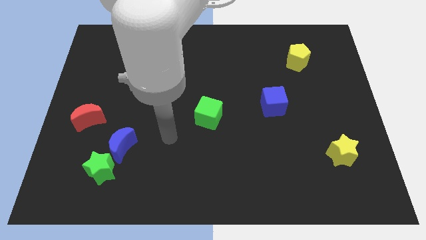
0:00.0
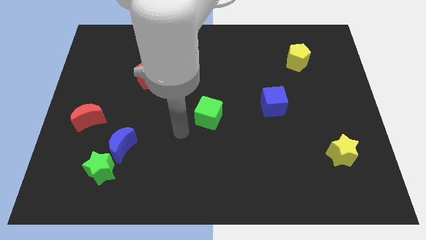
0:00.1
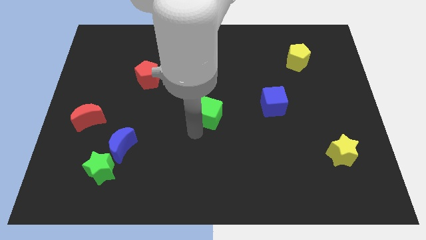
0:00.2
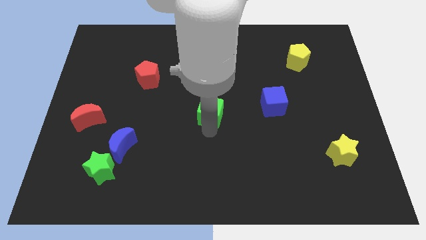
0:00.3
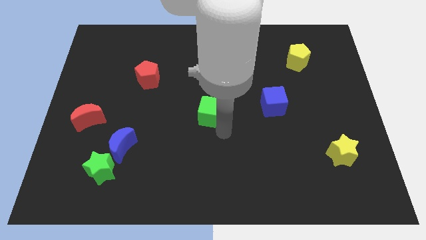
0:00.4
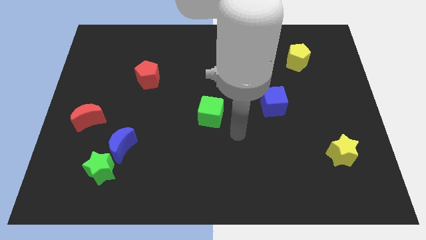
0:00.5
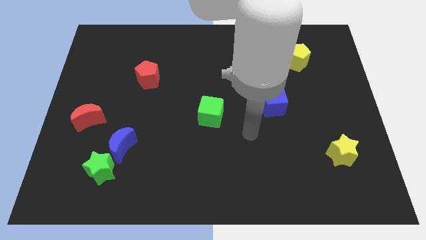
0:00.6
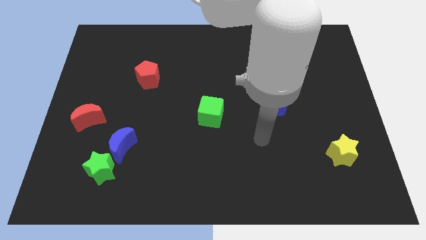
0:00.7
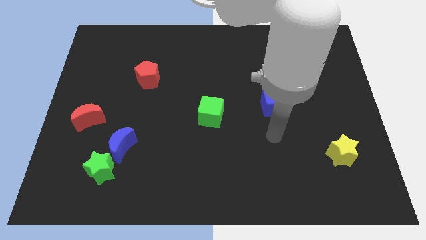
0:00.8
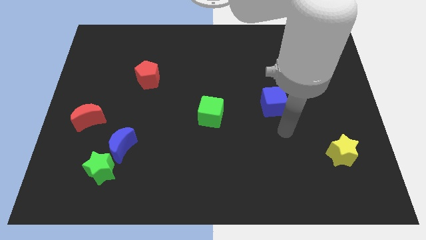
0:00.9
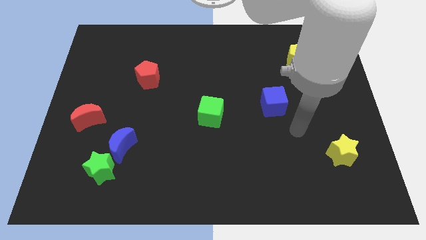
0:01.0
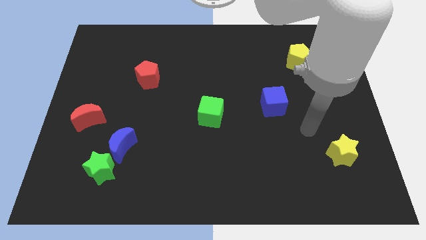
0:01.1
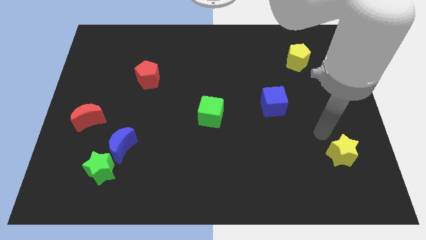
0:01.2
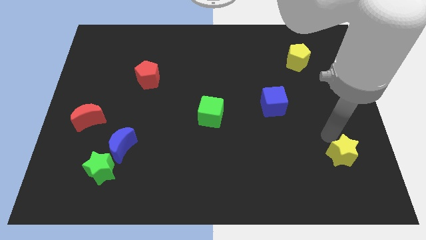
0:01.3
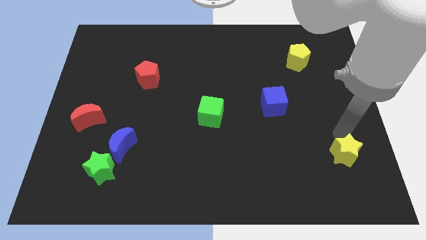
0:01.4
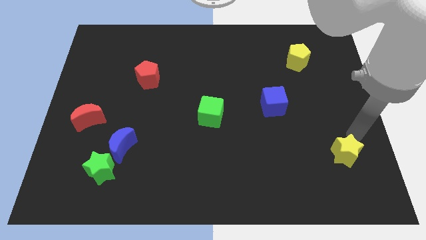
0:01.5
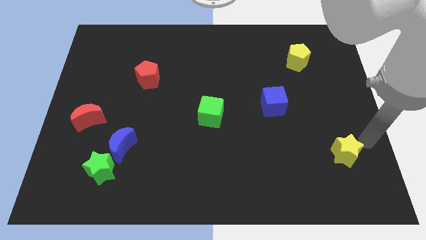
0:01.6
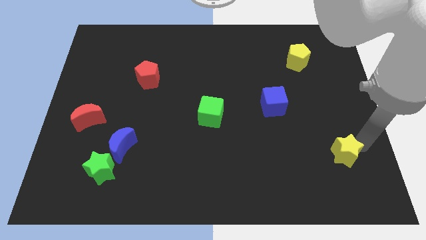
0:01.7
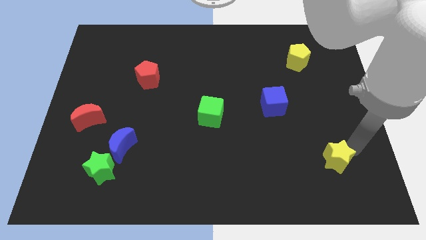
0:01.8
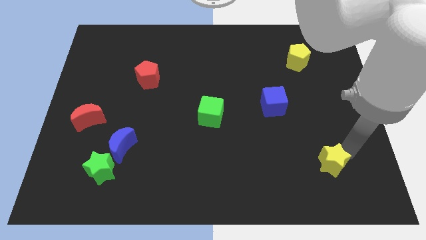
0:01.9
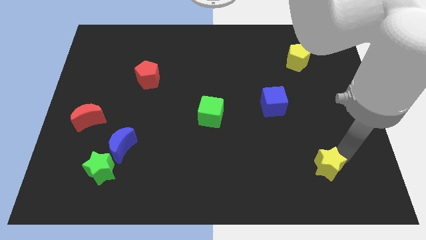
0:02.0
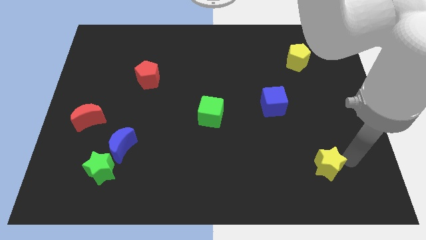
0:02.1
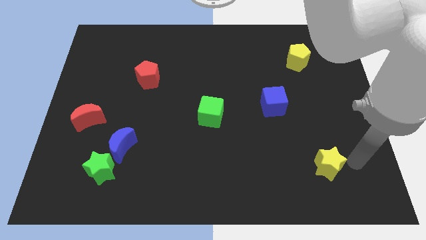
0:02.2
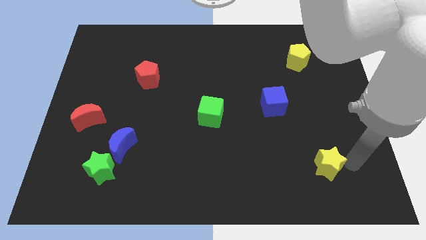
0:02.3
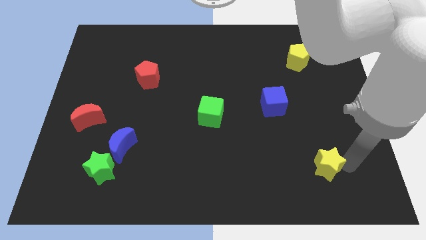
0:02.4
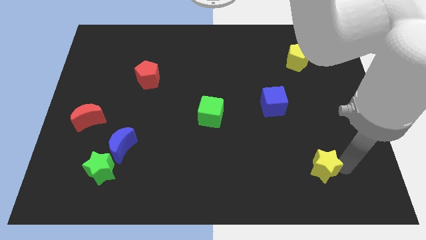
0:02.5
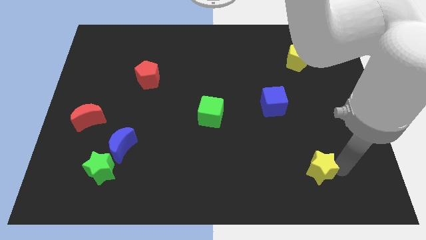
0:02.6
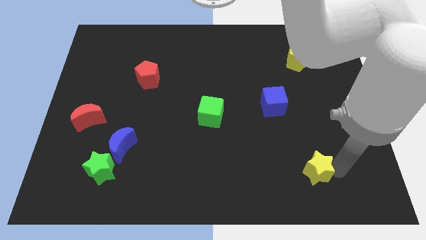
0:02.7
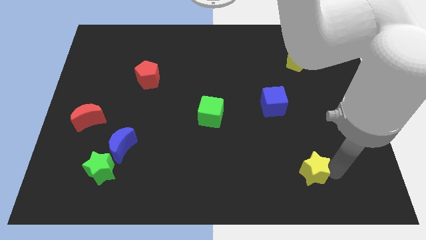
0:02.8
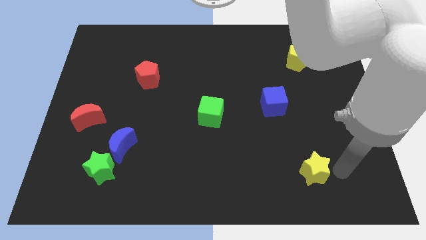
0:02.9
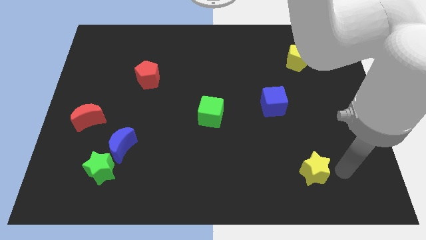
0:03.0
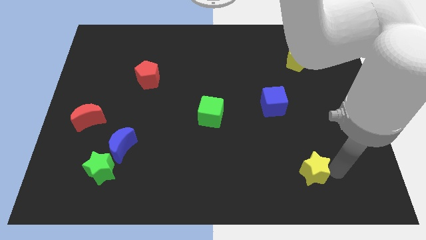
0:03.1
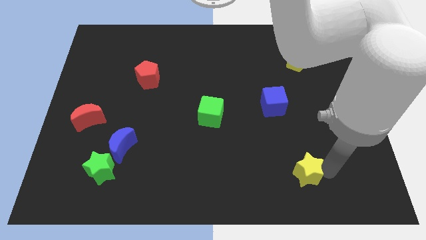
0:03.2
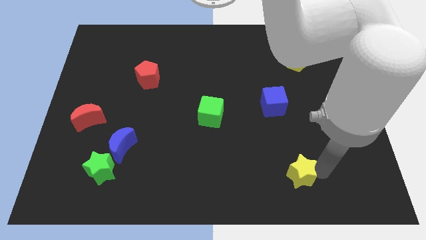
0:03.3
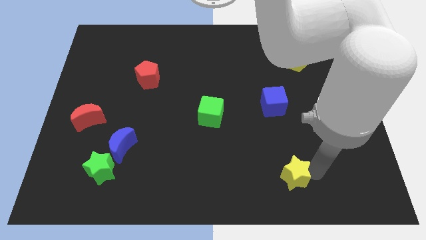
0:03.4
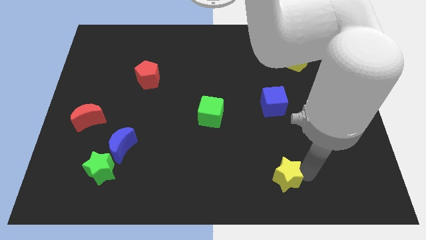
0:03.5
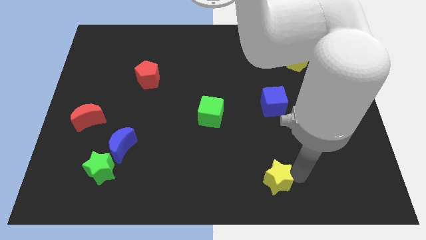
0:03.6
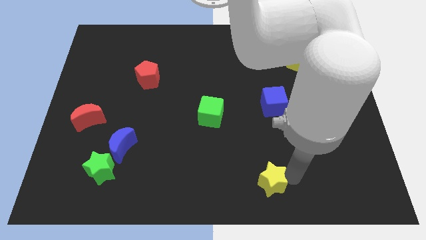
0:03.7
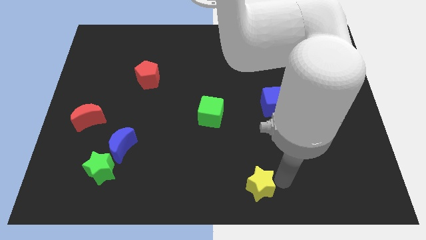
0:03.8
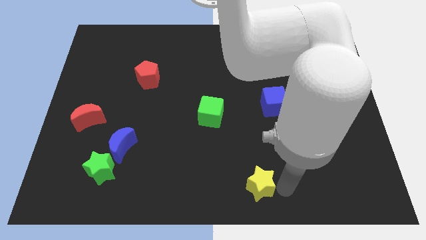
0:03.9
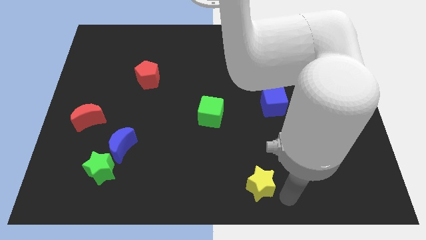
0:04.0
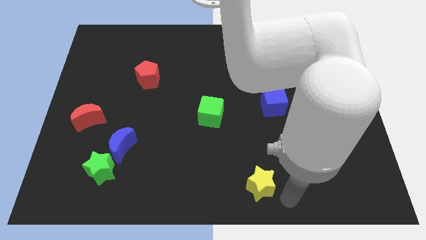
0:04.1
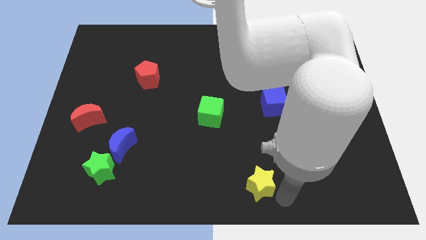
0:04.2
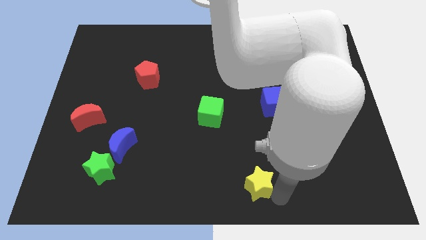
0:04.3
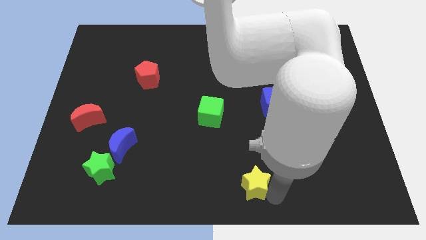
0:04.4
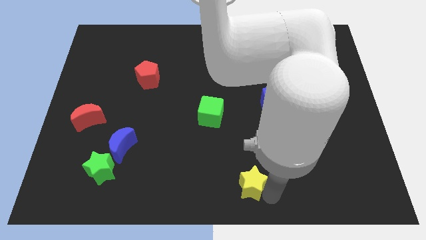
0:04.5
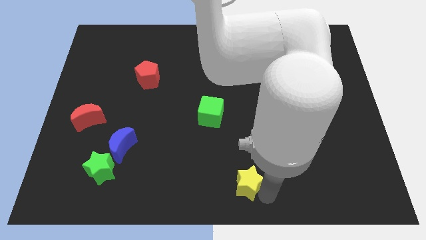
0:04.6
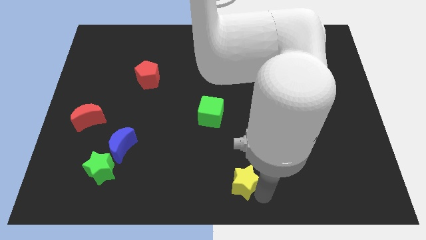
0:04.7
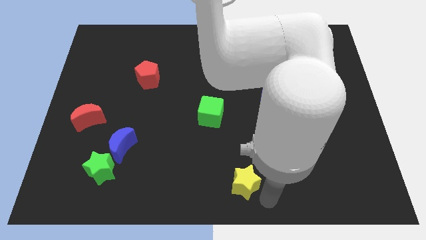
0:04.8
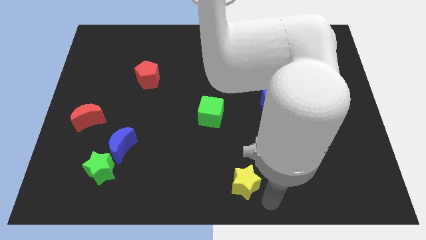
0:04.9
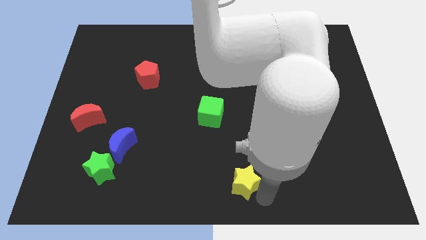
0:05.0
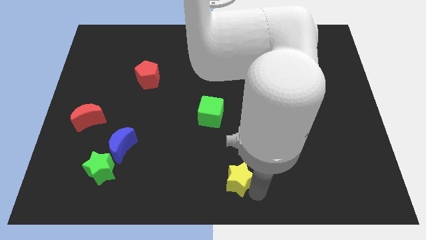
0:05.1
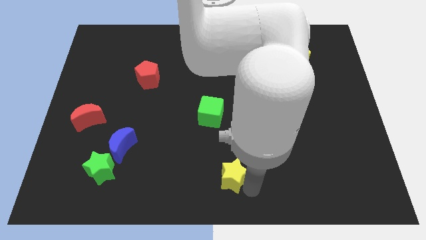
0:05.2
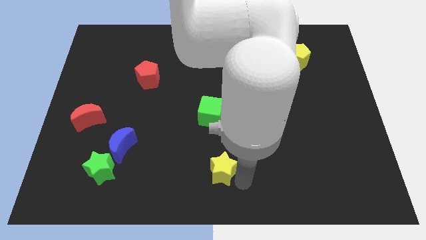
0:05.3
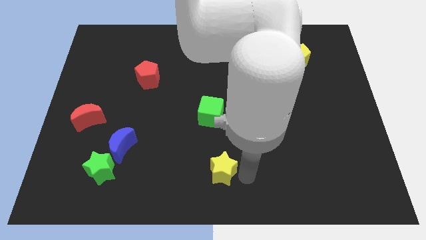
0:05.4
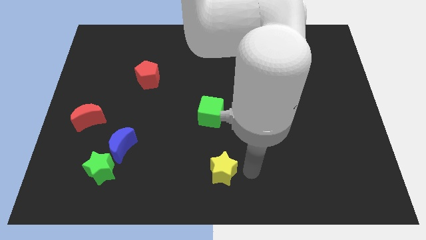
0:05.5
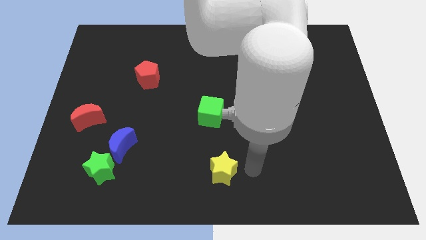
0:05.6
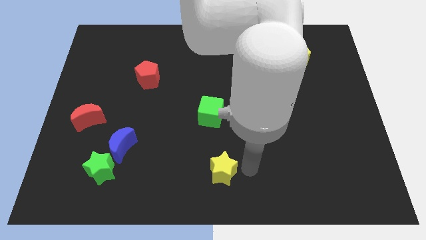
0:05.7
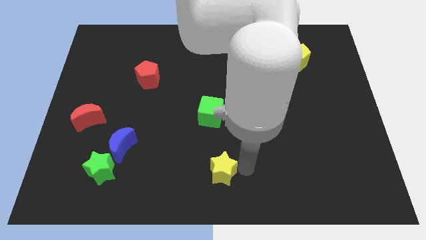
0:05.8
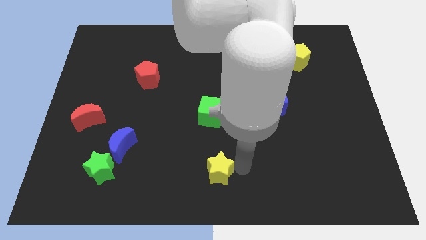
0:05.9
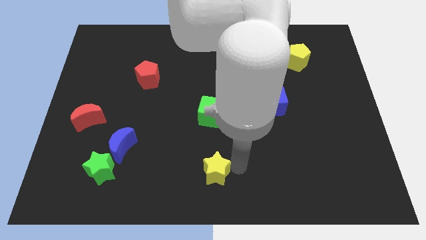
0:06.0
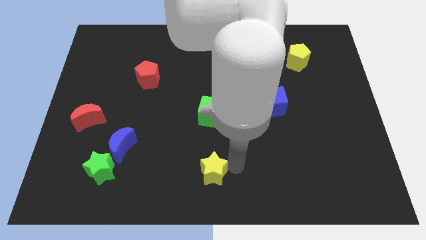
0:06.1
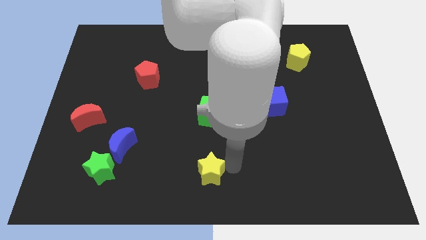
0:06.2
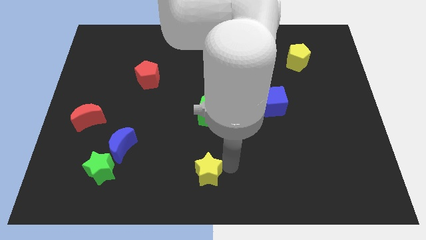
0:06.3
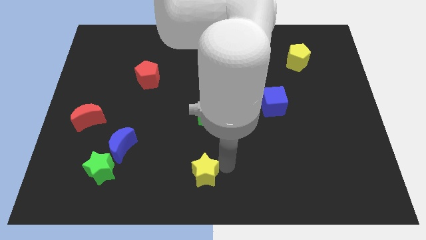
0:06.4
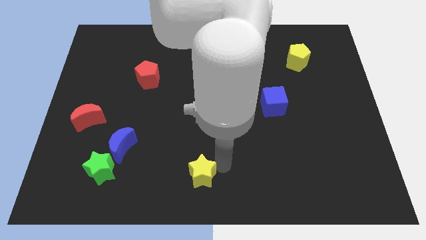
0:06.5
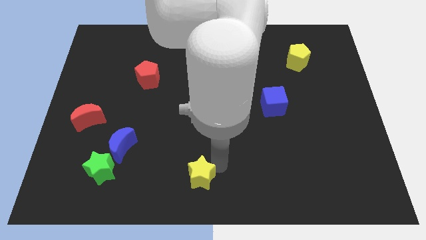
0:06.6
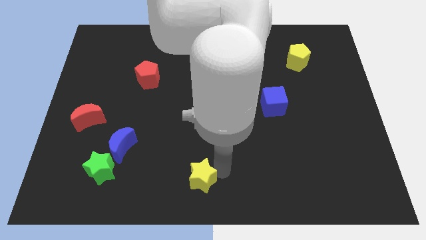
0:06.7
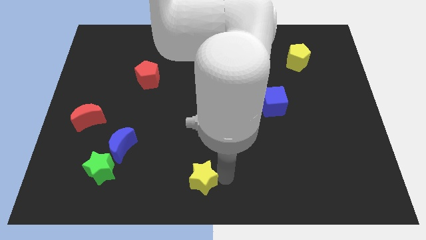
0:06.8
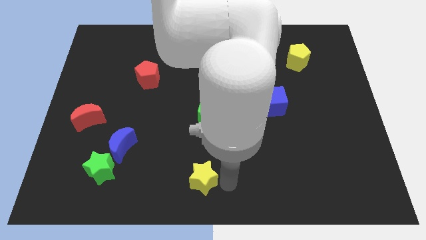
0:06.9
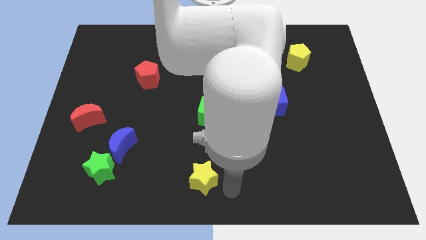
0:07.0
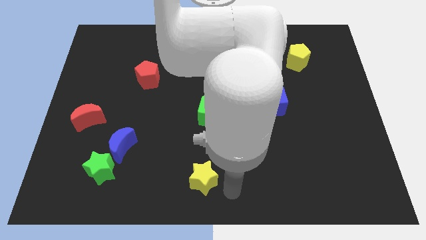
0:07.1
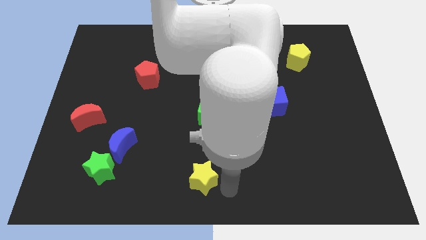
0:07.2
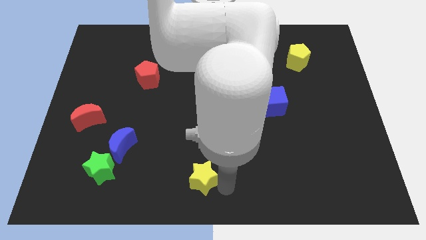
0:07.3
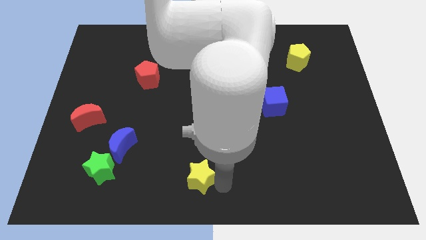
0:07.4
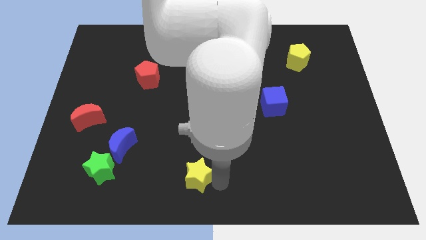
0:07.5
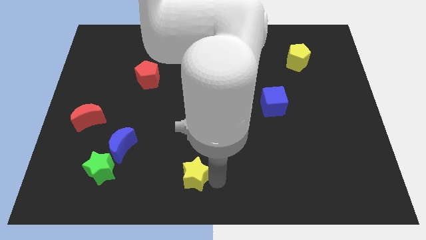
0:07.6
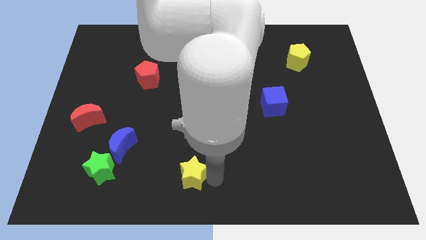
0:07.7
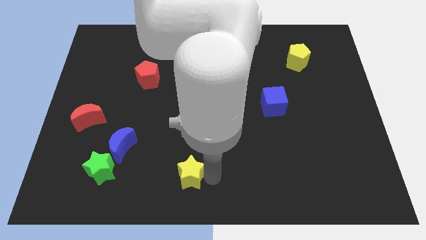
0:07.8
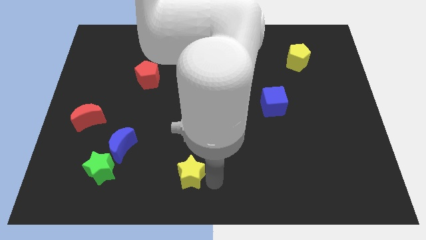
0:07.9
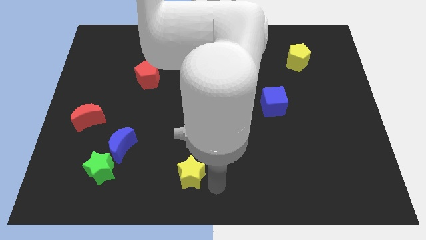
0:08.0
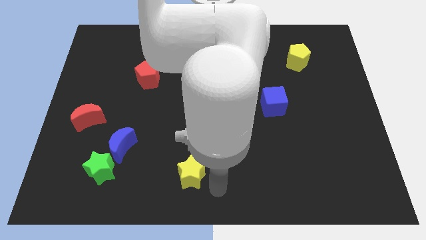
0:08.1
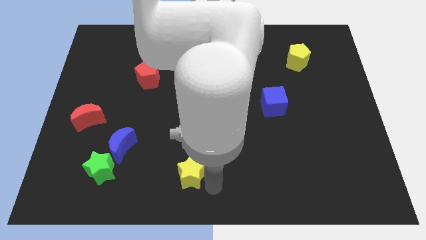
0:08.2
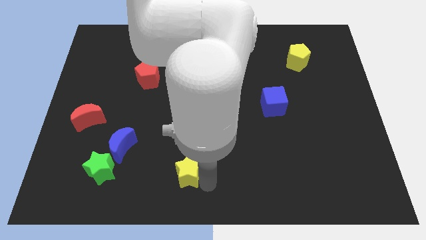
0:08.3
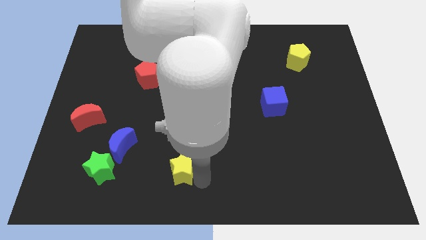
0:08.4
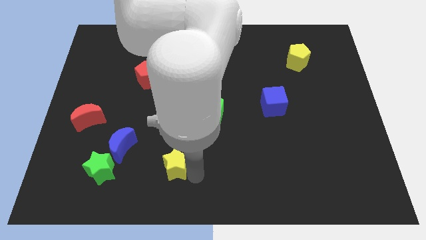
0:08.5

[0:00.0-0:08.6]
push the yellow star to the right side of the green star
